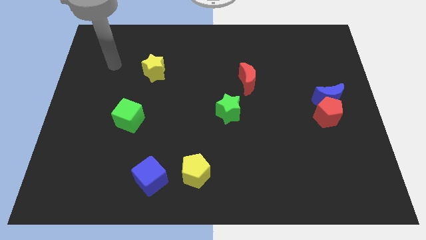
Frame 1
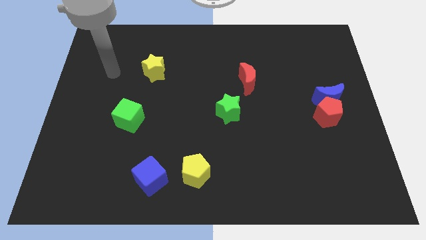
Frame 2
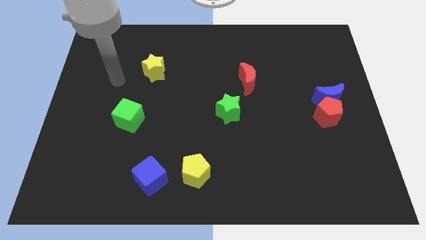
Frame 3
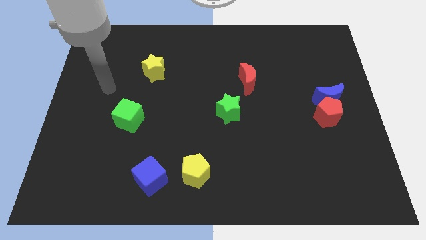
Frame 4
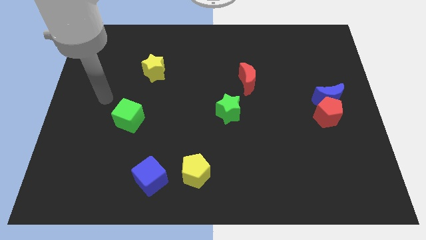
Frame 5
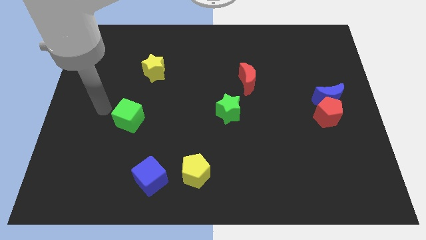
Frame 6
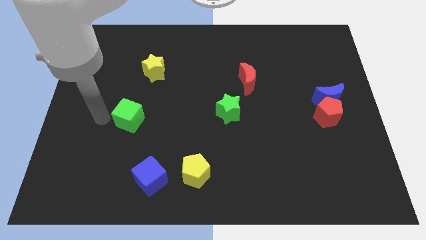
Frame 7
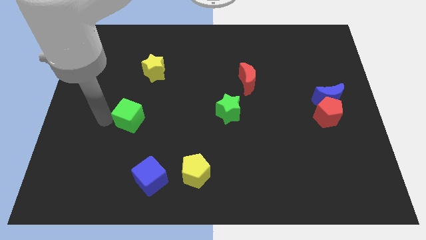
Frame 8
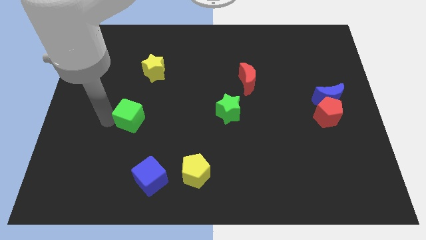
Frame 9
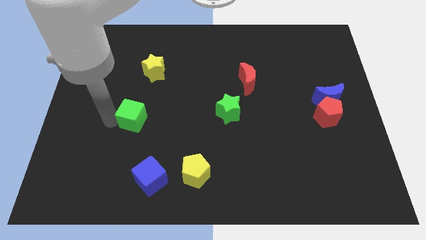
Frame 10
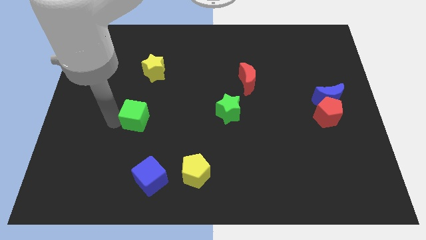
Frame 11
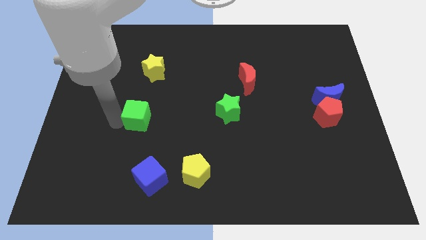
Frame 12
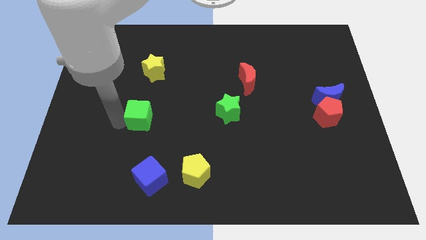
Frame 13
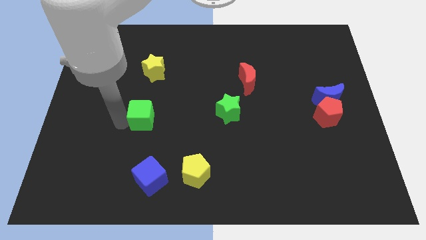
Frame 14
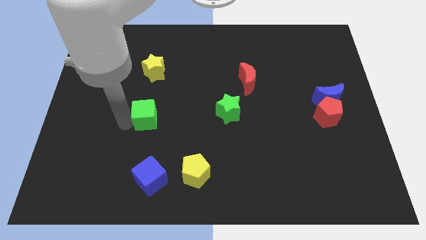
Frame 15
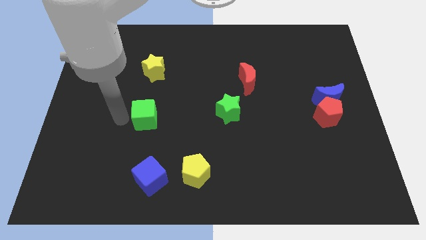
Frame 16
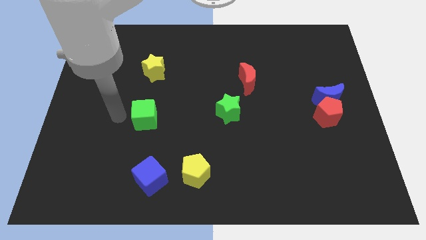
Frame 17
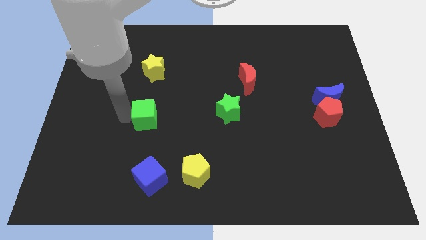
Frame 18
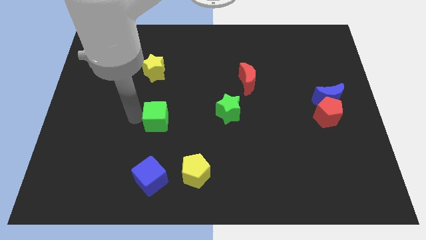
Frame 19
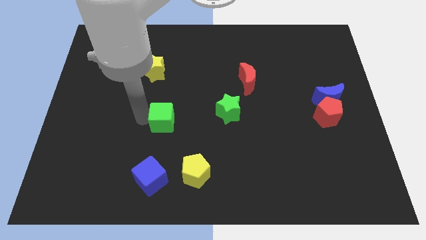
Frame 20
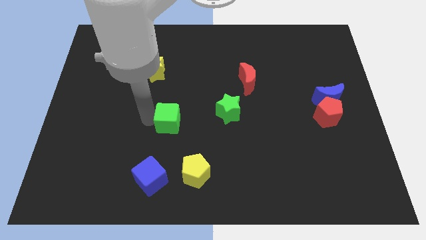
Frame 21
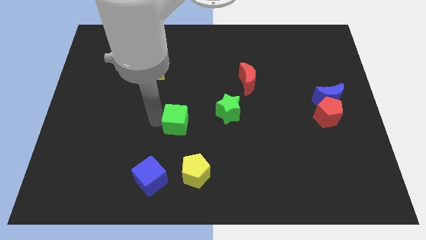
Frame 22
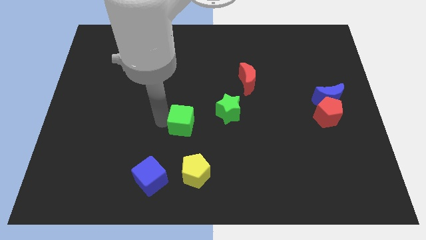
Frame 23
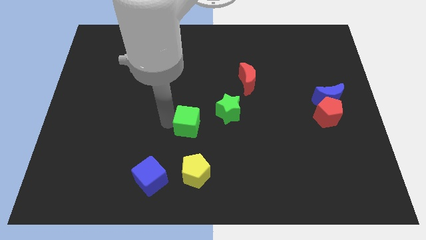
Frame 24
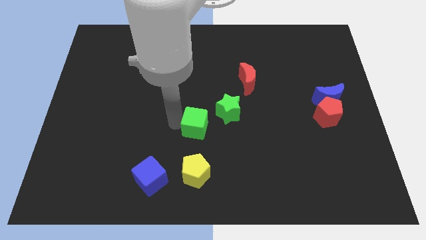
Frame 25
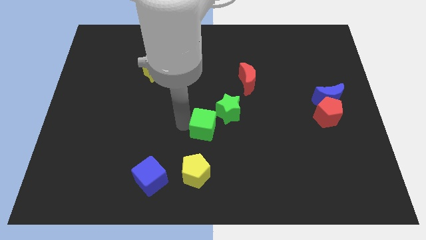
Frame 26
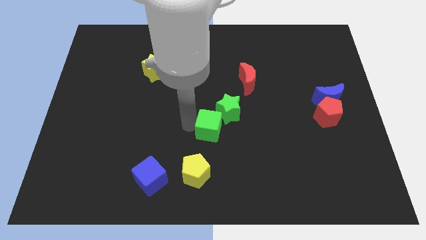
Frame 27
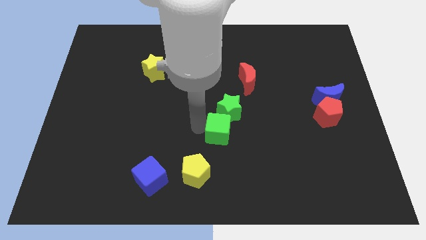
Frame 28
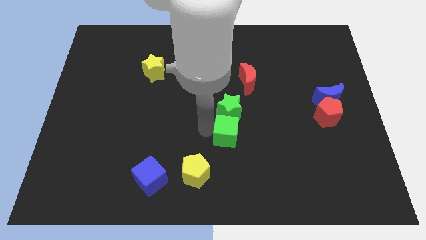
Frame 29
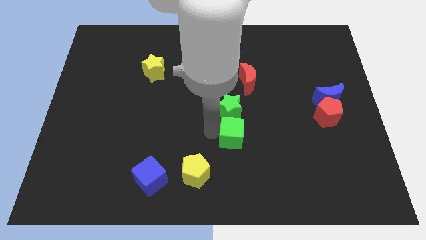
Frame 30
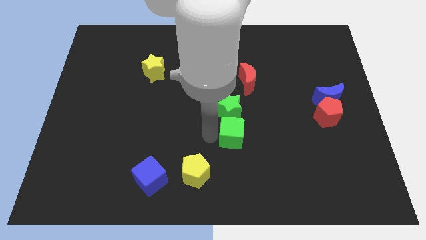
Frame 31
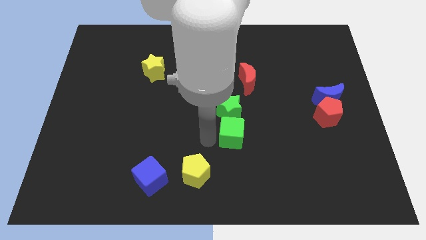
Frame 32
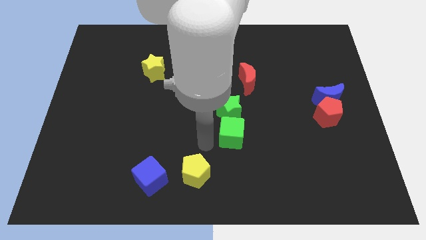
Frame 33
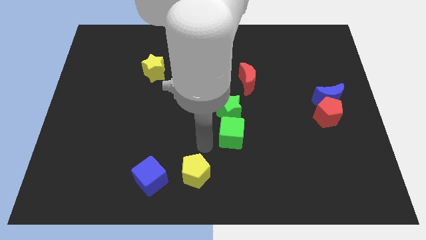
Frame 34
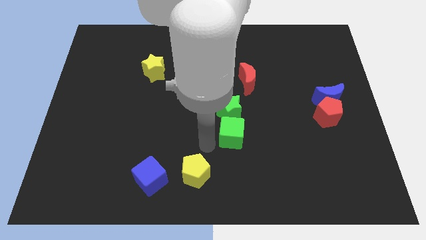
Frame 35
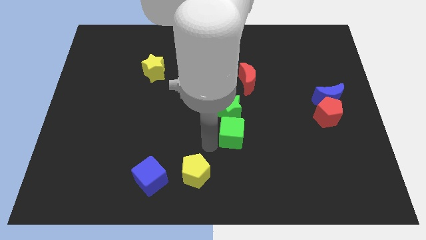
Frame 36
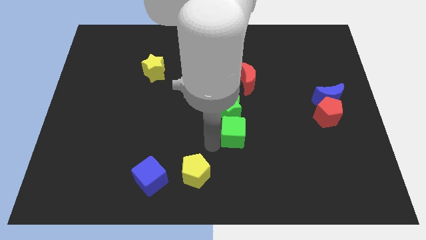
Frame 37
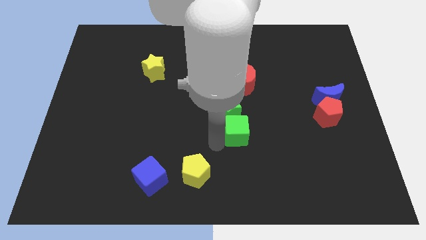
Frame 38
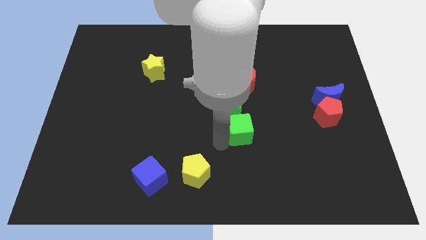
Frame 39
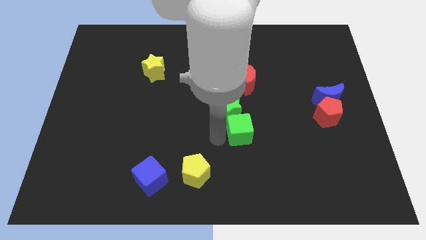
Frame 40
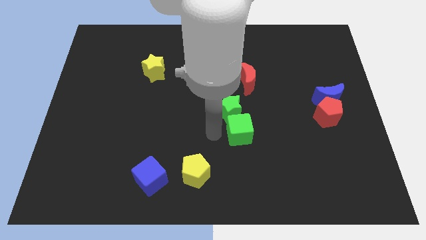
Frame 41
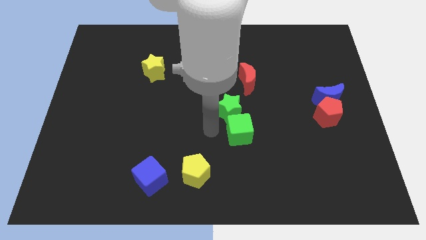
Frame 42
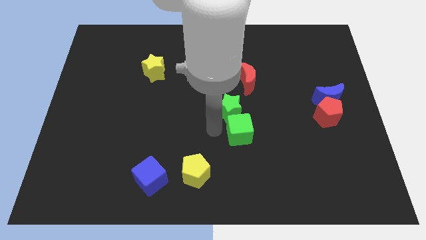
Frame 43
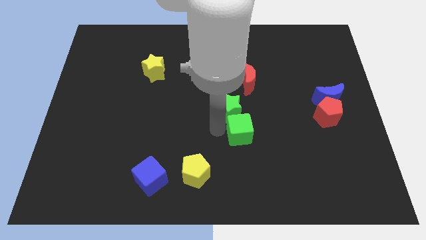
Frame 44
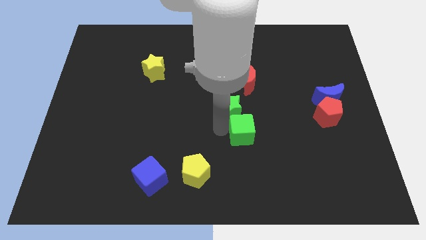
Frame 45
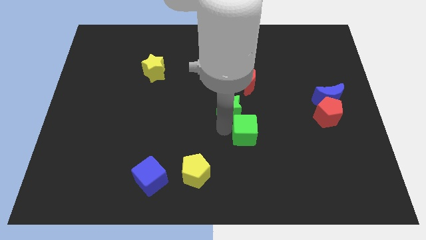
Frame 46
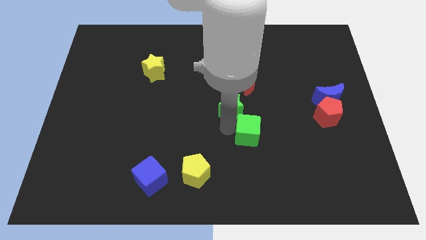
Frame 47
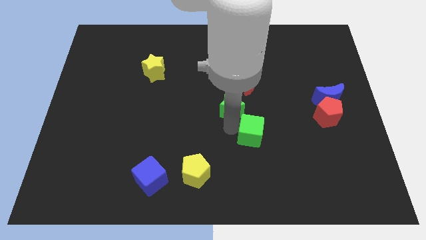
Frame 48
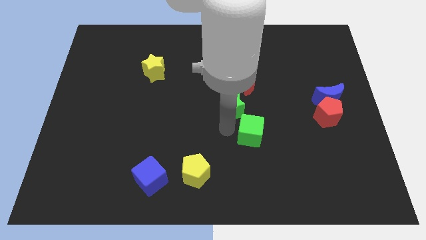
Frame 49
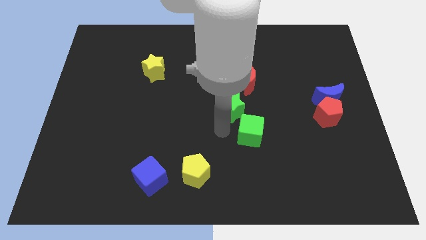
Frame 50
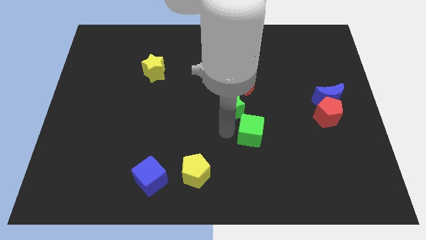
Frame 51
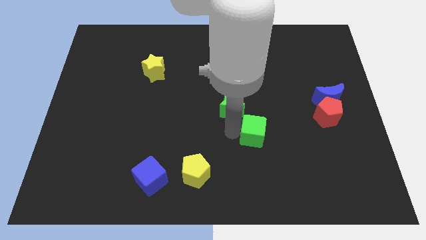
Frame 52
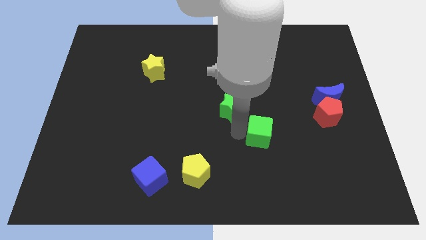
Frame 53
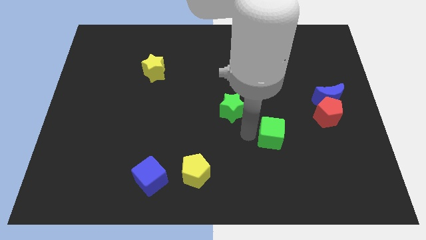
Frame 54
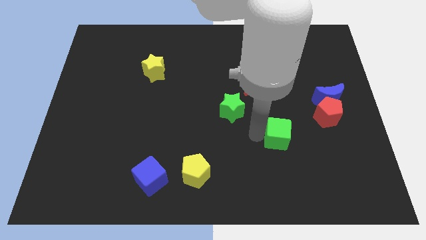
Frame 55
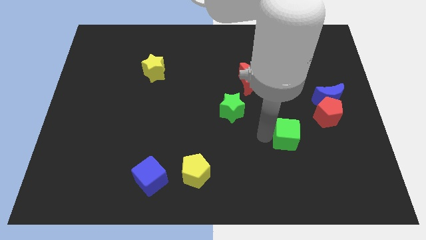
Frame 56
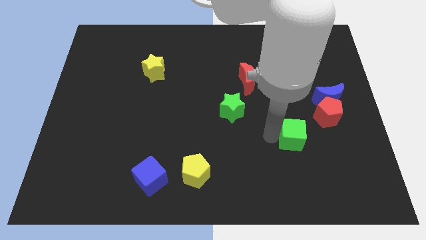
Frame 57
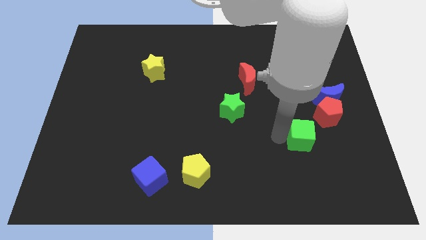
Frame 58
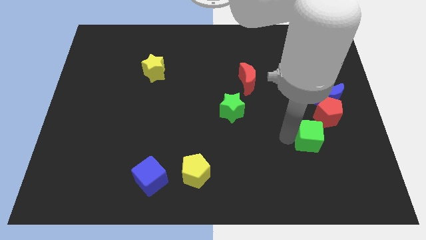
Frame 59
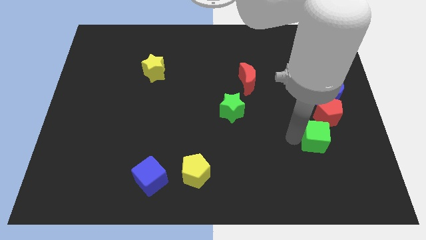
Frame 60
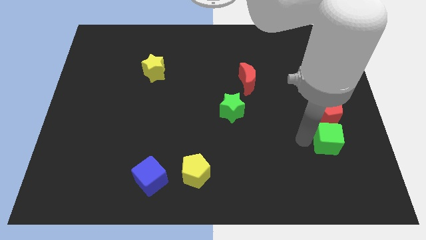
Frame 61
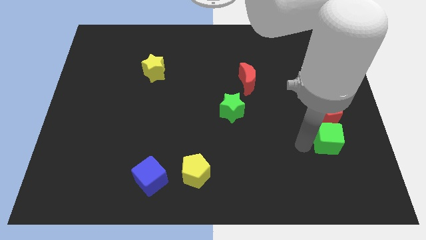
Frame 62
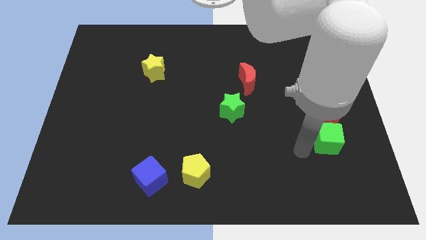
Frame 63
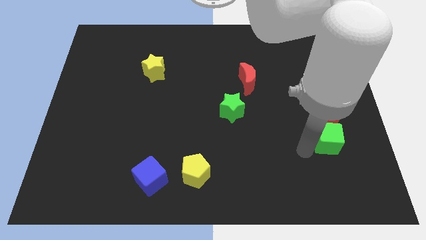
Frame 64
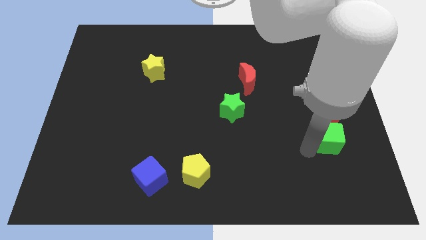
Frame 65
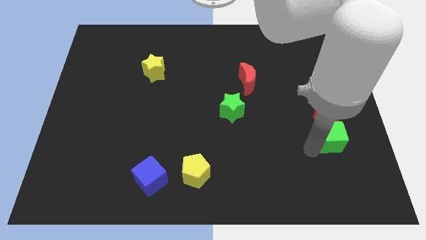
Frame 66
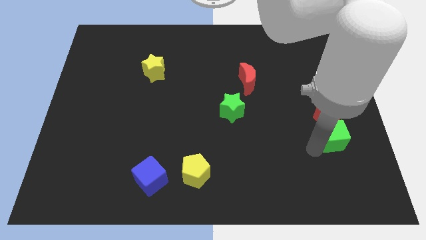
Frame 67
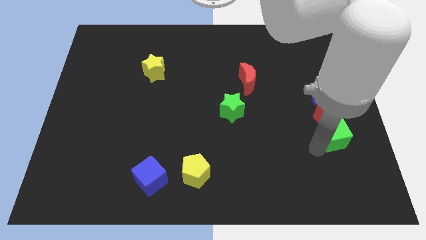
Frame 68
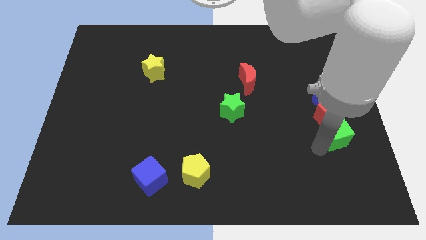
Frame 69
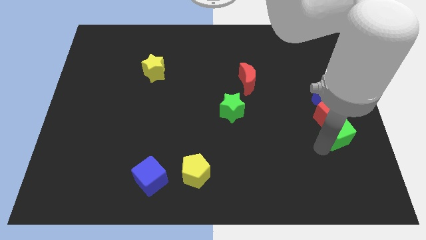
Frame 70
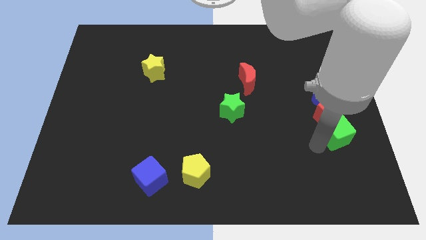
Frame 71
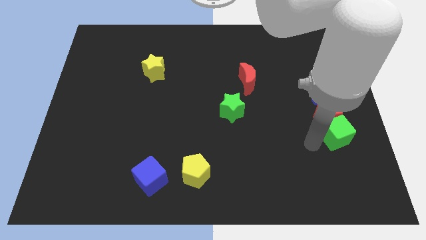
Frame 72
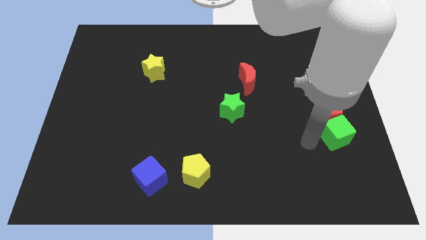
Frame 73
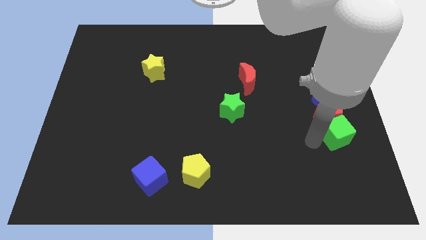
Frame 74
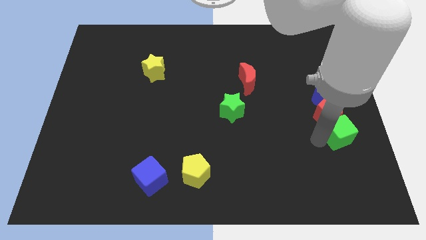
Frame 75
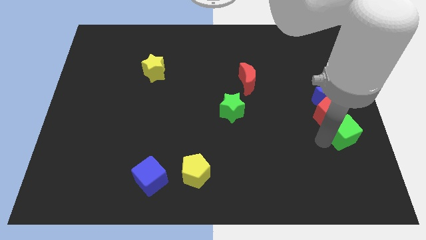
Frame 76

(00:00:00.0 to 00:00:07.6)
slide the green cube to the center right
